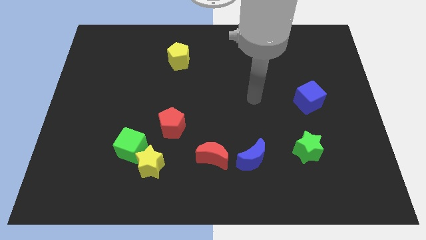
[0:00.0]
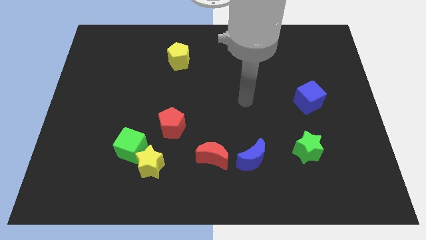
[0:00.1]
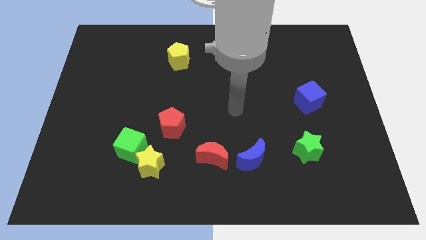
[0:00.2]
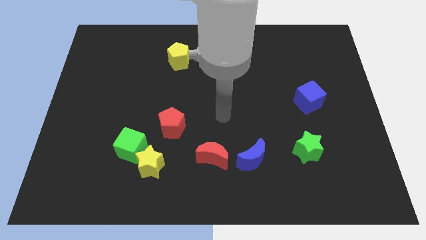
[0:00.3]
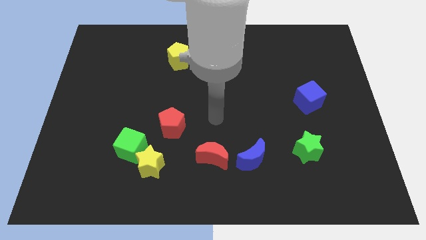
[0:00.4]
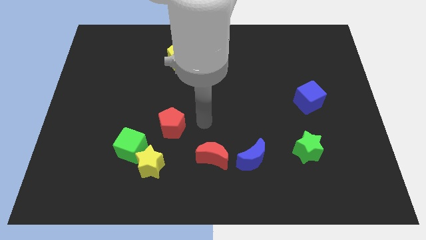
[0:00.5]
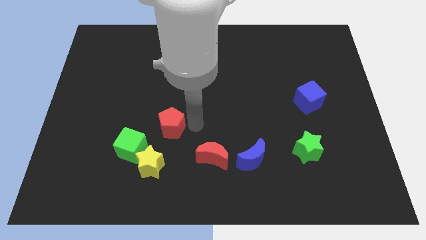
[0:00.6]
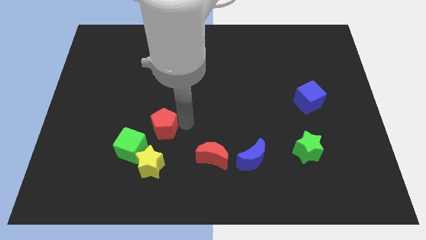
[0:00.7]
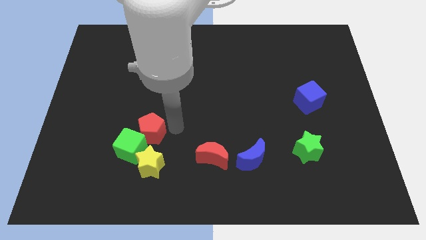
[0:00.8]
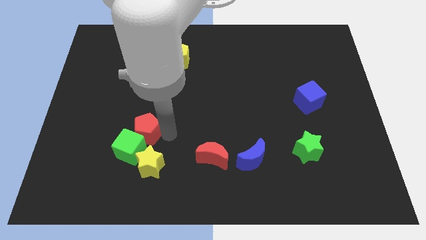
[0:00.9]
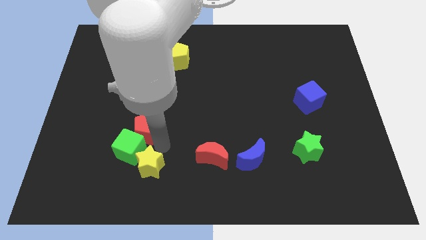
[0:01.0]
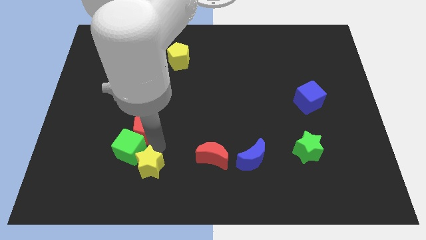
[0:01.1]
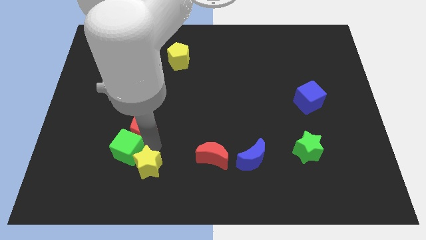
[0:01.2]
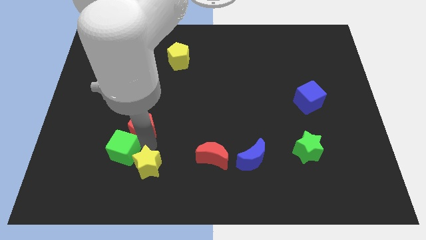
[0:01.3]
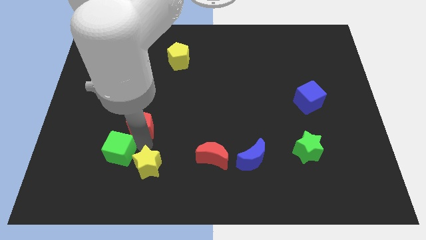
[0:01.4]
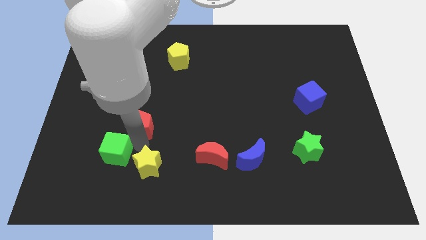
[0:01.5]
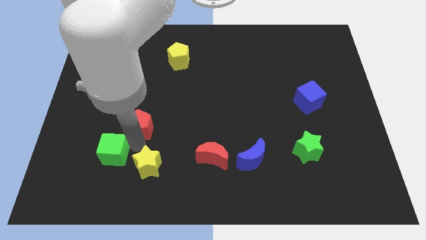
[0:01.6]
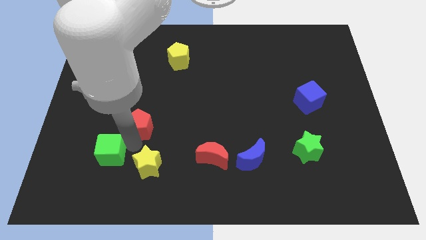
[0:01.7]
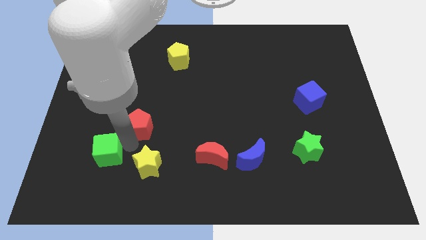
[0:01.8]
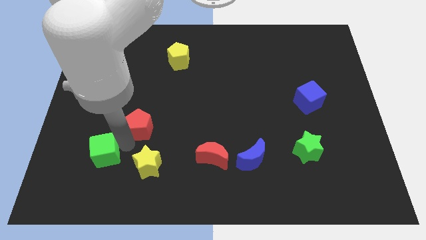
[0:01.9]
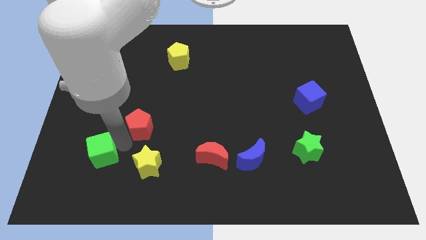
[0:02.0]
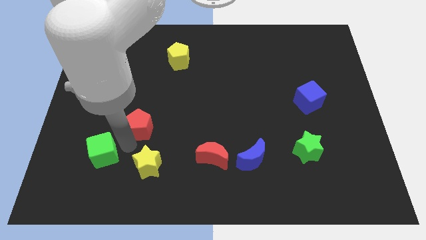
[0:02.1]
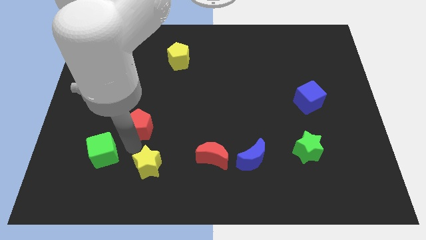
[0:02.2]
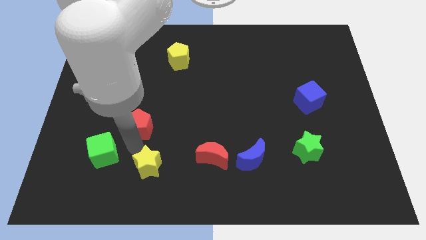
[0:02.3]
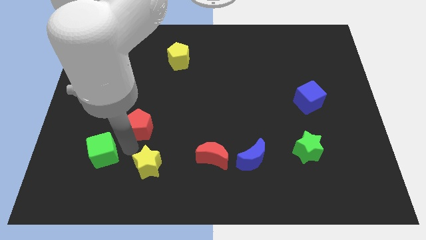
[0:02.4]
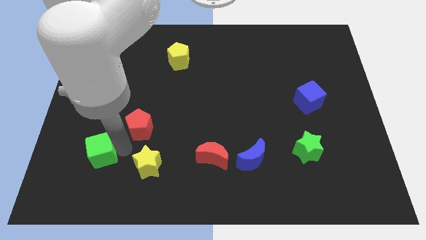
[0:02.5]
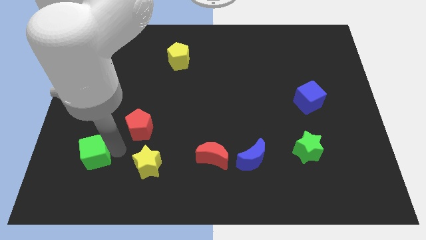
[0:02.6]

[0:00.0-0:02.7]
pull the green cube apart from the yellow star and red pentagon

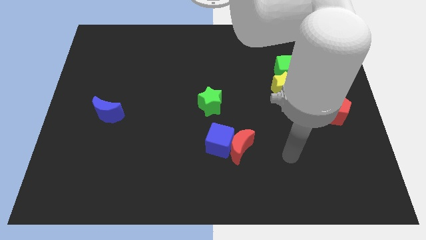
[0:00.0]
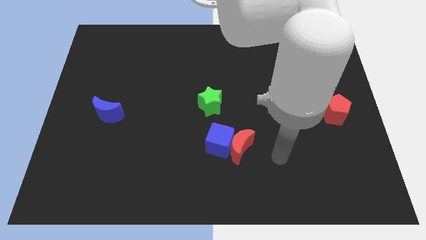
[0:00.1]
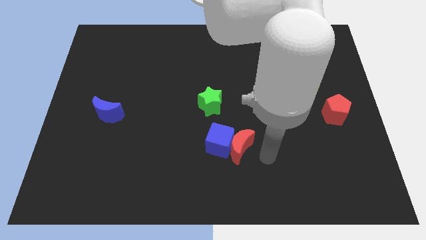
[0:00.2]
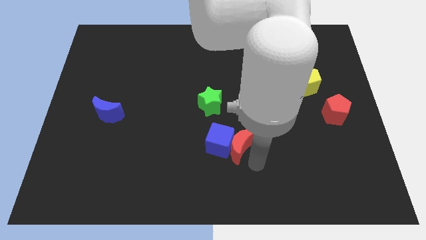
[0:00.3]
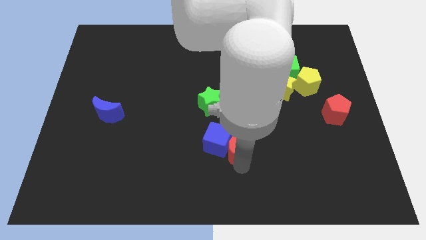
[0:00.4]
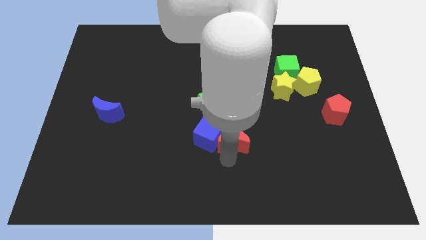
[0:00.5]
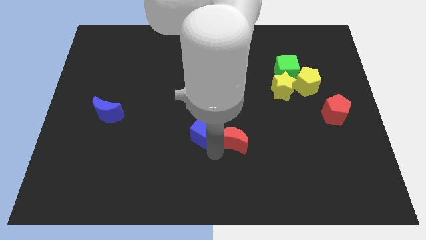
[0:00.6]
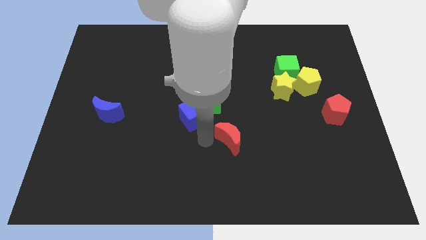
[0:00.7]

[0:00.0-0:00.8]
move the red moon away from the blue cube

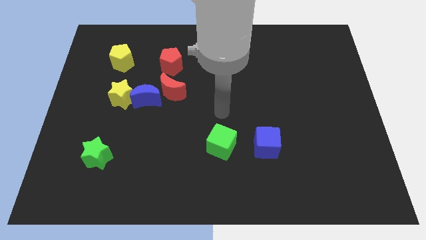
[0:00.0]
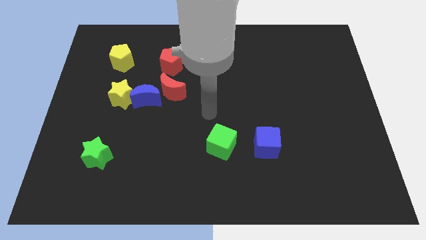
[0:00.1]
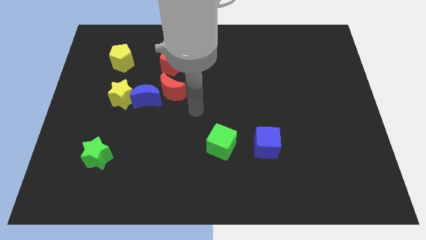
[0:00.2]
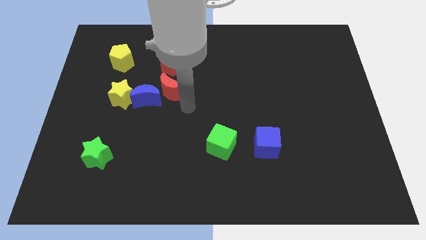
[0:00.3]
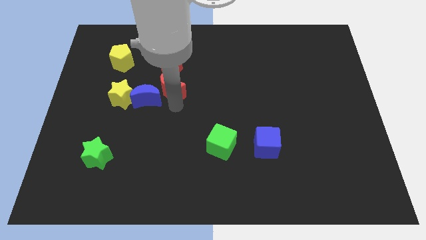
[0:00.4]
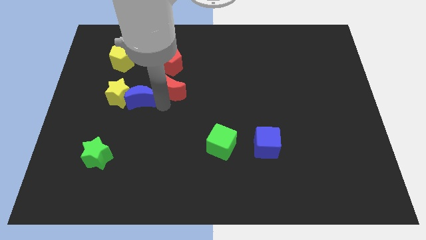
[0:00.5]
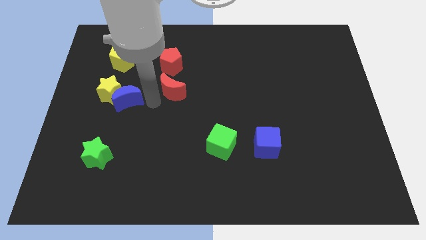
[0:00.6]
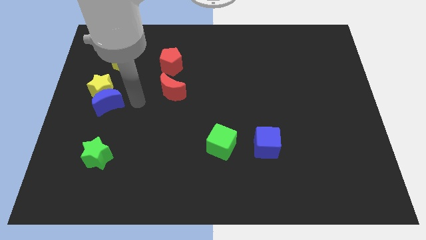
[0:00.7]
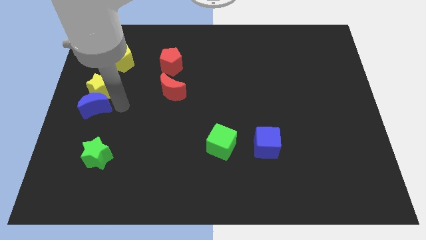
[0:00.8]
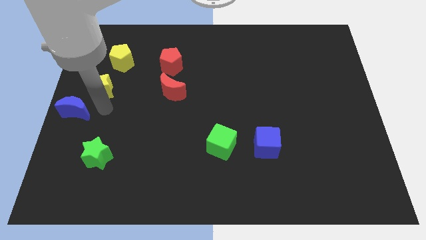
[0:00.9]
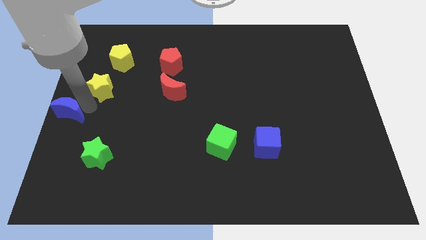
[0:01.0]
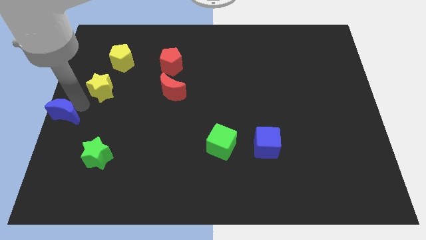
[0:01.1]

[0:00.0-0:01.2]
move the yellow star away from the blue moon

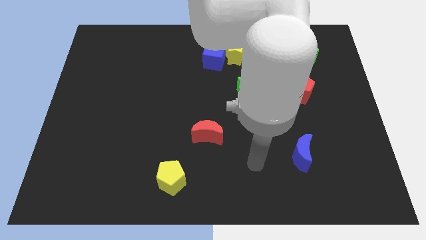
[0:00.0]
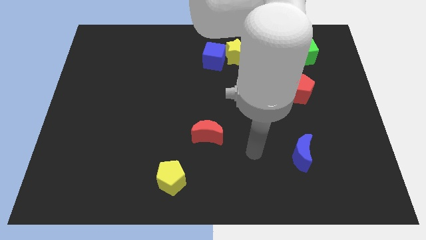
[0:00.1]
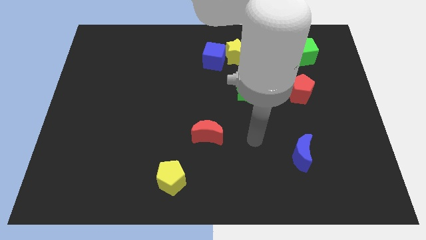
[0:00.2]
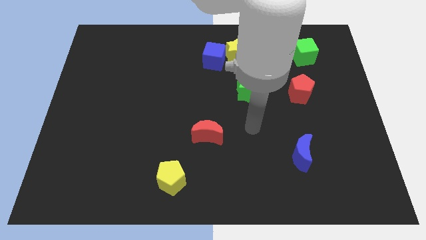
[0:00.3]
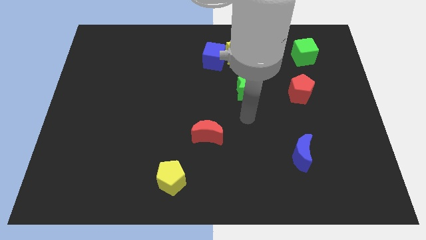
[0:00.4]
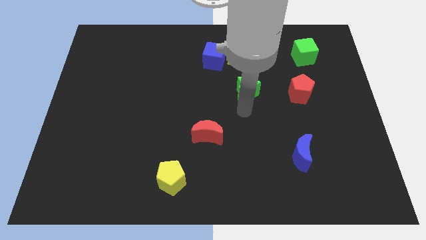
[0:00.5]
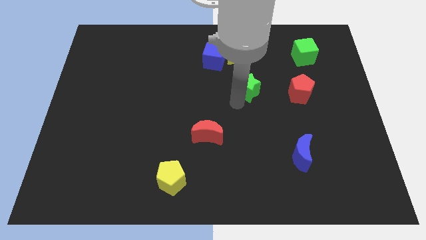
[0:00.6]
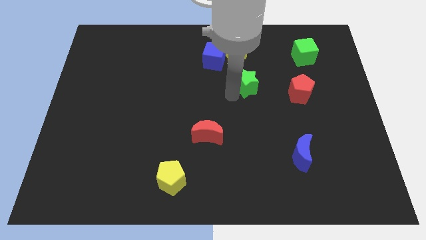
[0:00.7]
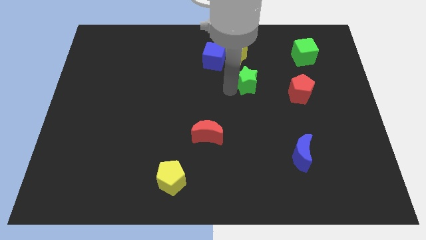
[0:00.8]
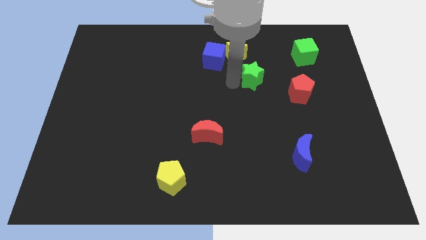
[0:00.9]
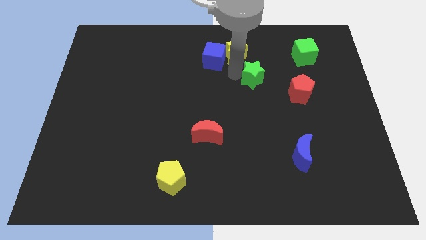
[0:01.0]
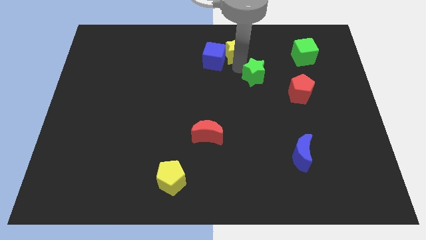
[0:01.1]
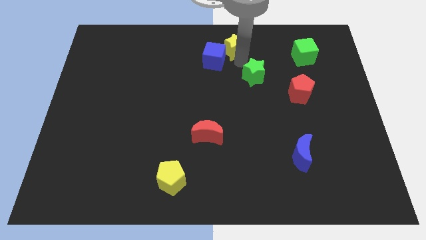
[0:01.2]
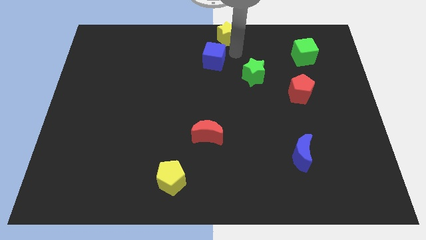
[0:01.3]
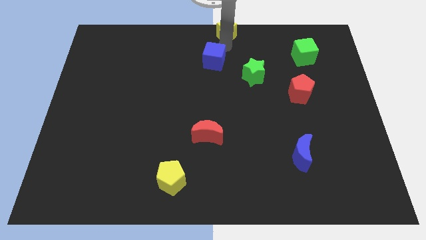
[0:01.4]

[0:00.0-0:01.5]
pull the blue cube apart from the yellow star

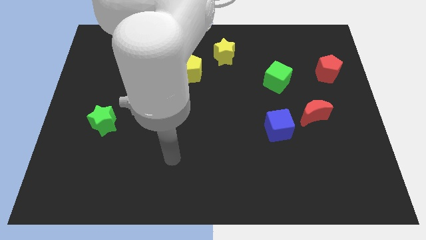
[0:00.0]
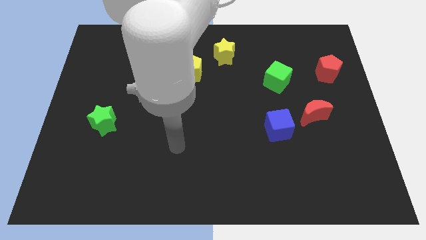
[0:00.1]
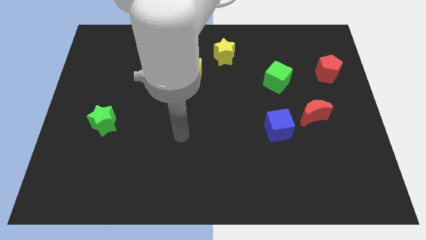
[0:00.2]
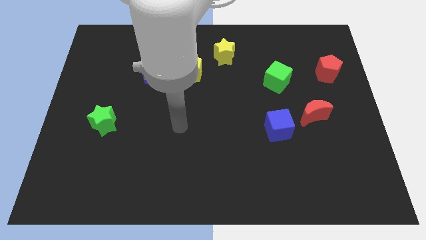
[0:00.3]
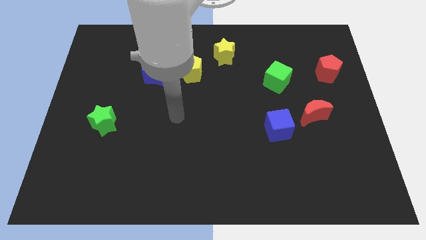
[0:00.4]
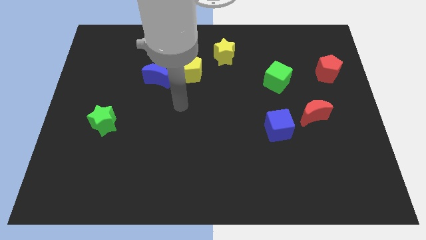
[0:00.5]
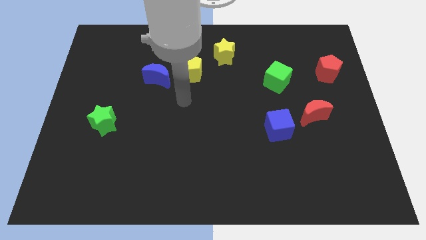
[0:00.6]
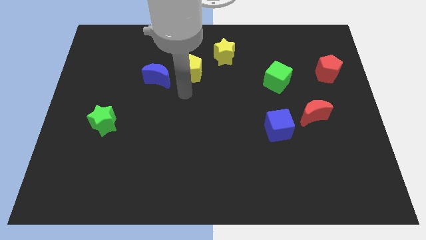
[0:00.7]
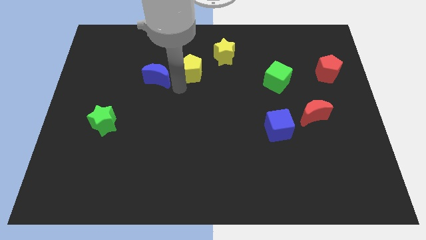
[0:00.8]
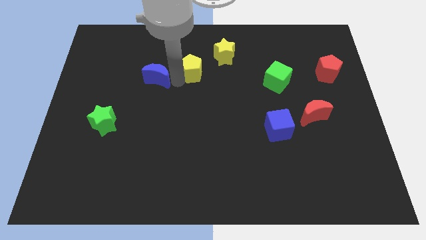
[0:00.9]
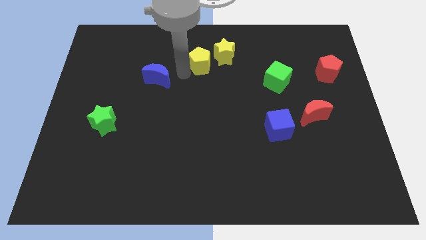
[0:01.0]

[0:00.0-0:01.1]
separate the blue moon from the yellow pentagon

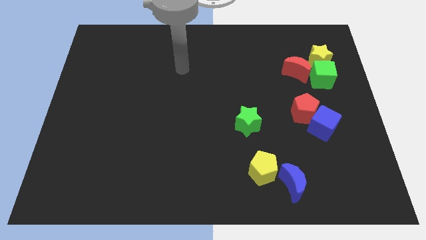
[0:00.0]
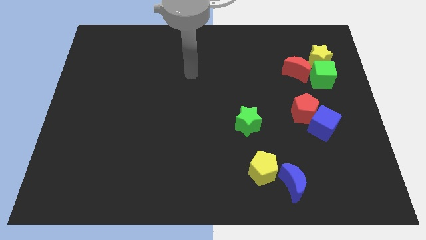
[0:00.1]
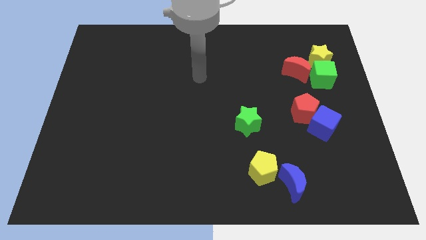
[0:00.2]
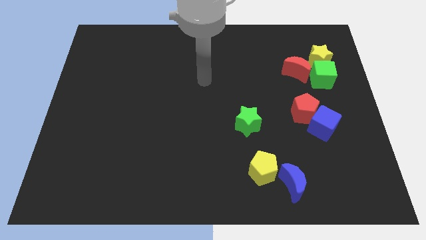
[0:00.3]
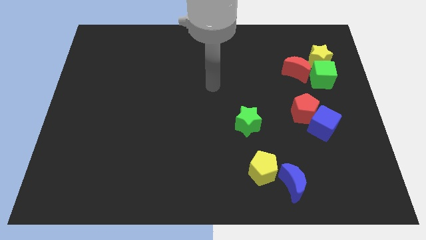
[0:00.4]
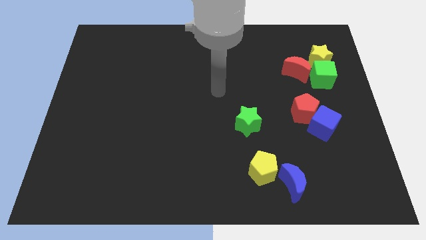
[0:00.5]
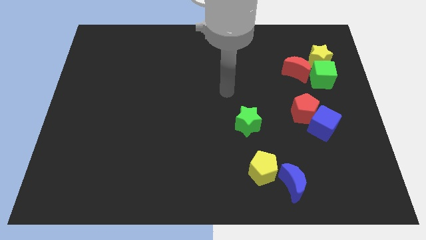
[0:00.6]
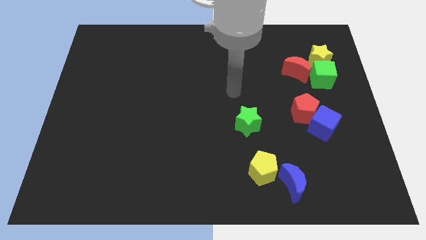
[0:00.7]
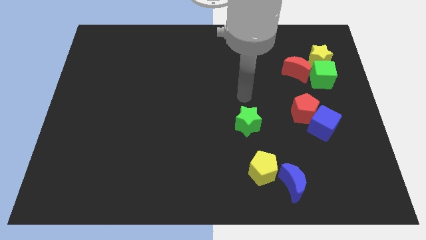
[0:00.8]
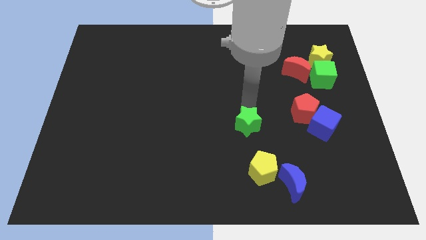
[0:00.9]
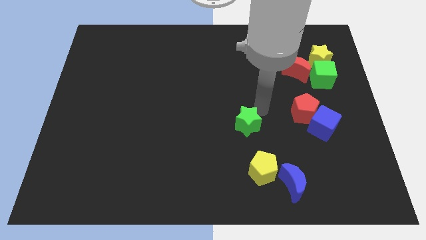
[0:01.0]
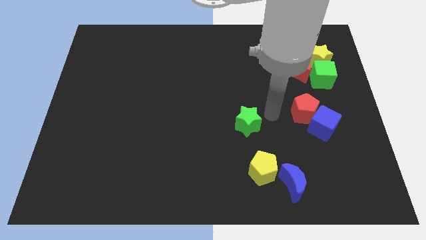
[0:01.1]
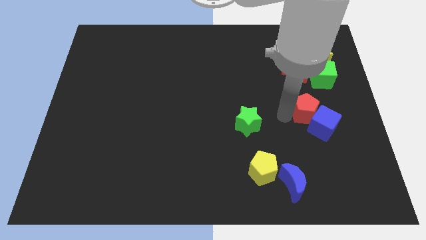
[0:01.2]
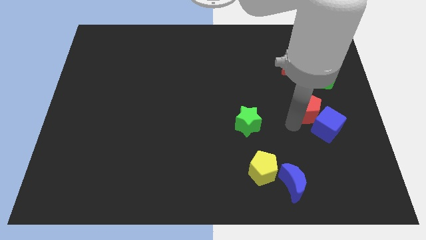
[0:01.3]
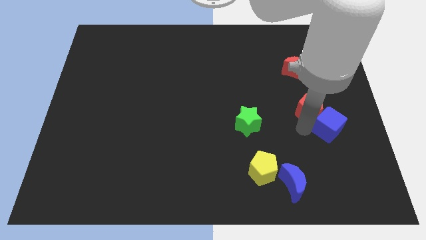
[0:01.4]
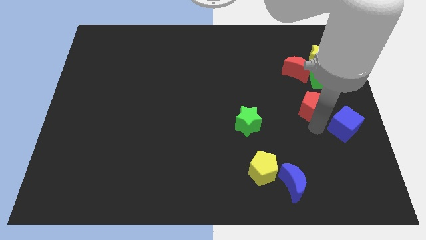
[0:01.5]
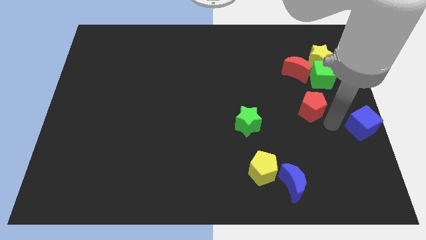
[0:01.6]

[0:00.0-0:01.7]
move the red pentagon away from the blue cube

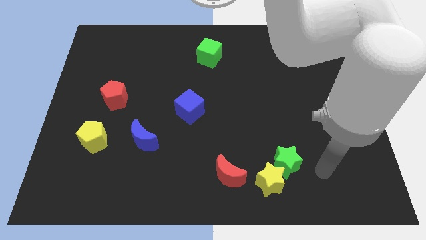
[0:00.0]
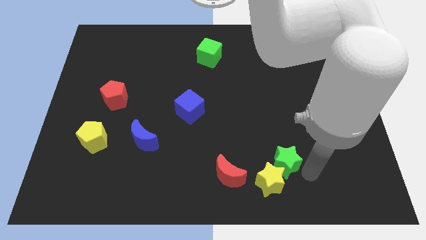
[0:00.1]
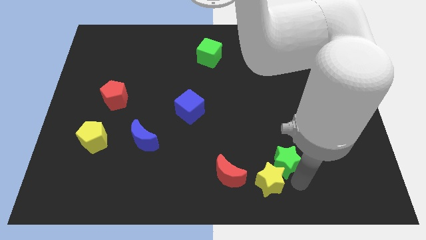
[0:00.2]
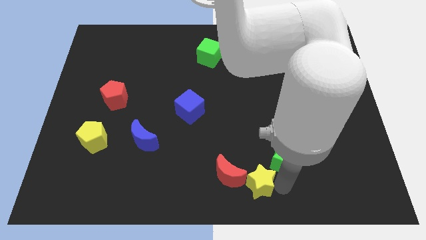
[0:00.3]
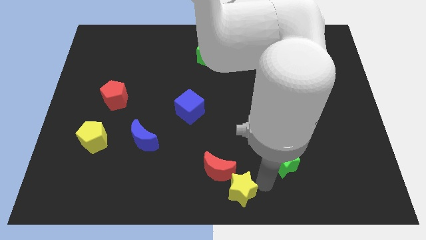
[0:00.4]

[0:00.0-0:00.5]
separate the green star from the yellow star
